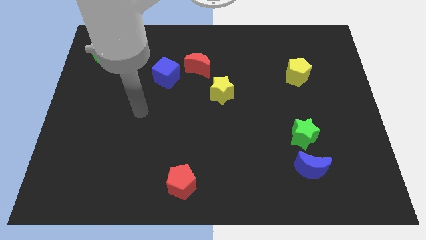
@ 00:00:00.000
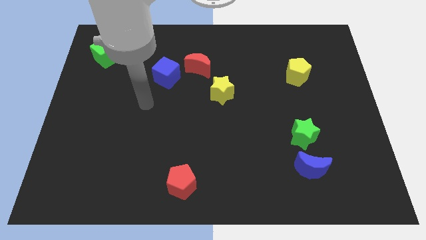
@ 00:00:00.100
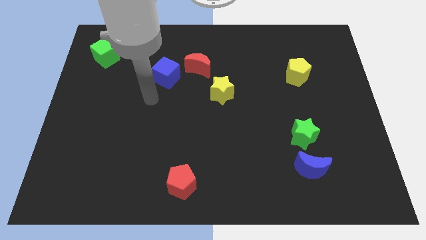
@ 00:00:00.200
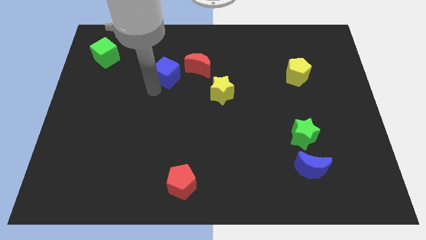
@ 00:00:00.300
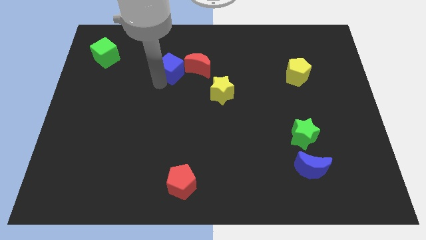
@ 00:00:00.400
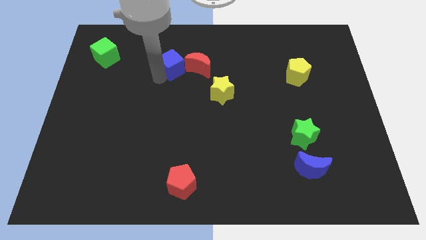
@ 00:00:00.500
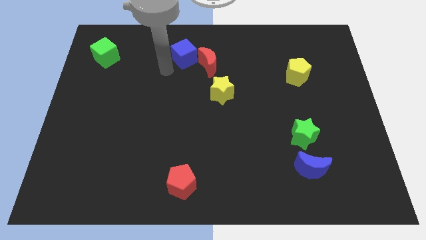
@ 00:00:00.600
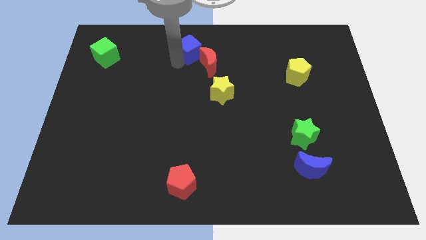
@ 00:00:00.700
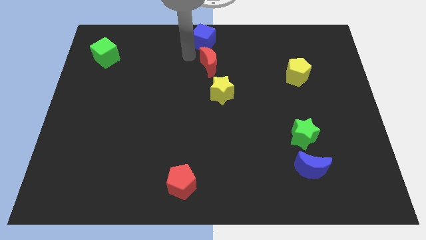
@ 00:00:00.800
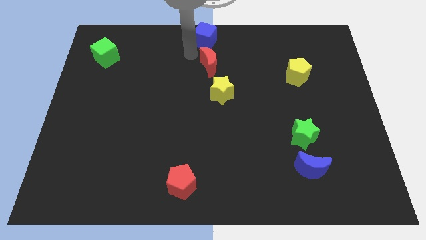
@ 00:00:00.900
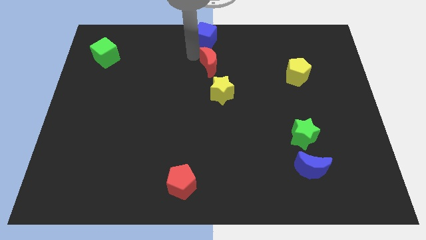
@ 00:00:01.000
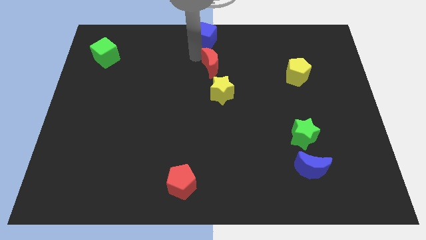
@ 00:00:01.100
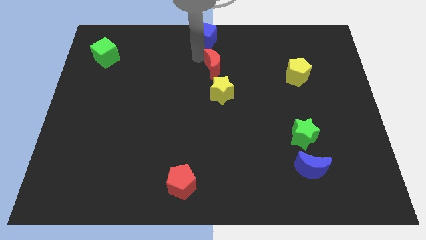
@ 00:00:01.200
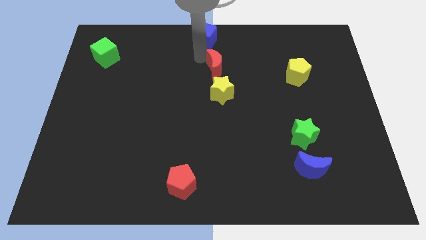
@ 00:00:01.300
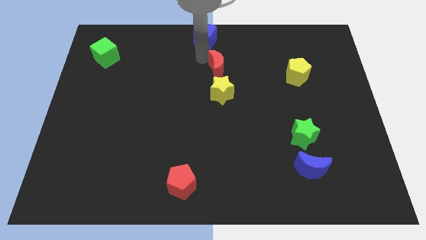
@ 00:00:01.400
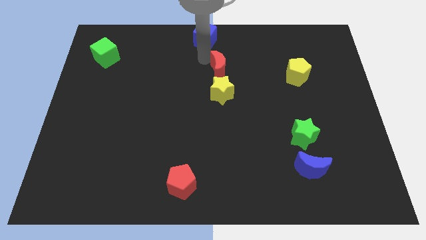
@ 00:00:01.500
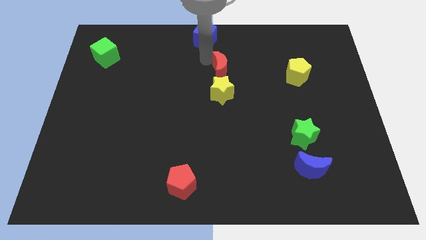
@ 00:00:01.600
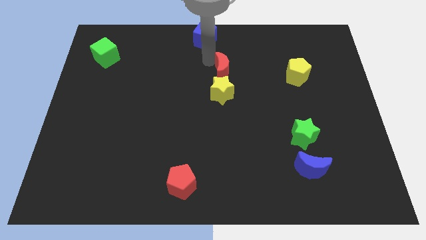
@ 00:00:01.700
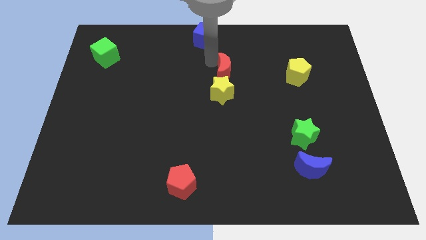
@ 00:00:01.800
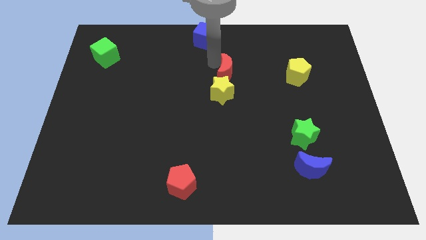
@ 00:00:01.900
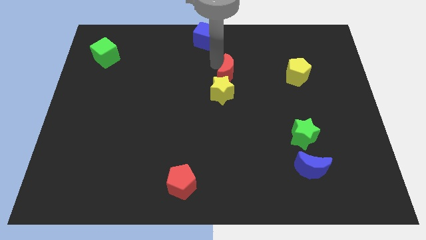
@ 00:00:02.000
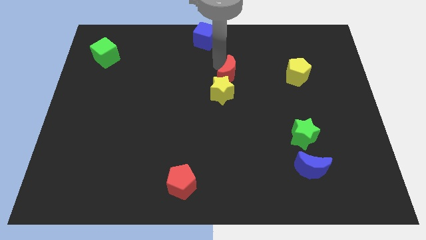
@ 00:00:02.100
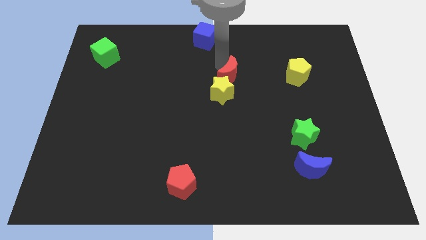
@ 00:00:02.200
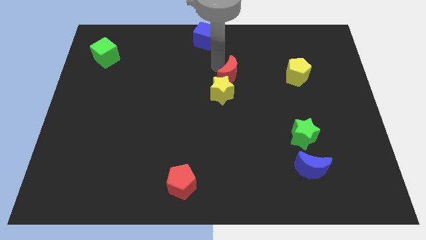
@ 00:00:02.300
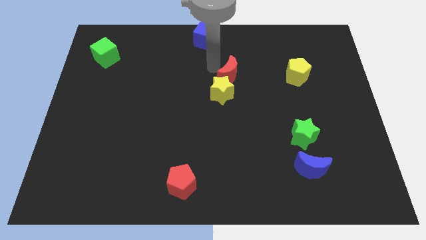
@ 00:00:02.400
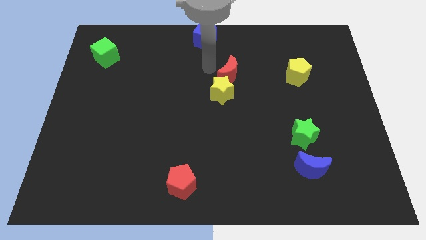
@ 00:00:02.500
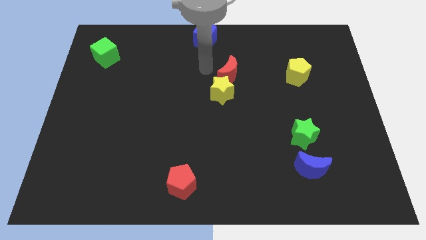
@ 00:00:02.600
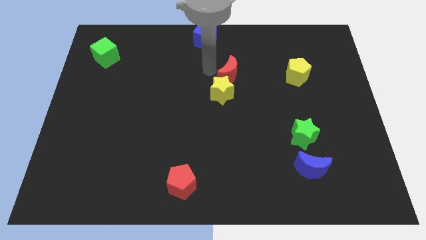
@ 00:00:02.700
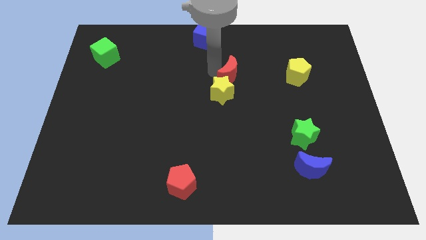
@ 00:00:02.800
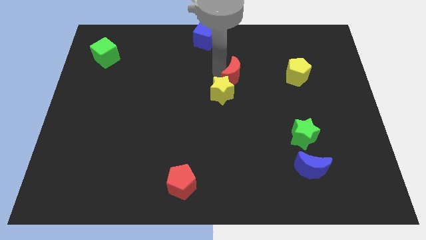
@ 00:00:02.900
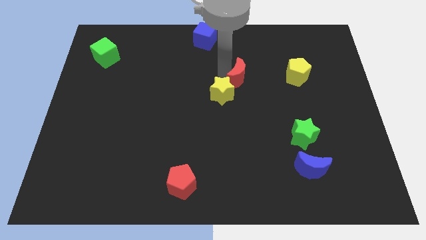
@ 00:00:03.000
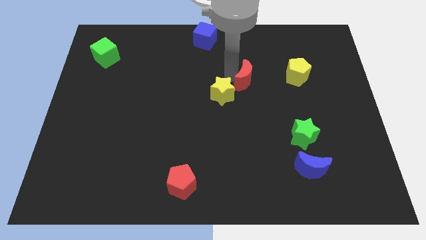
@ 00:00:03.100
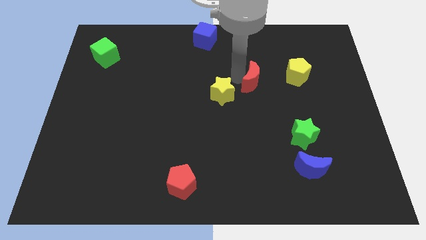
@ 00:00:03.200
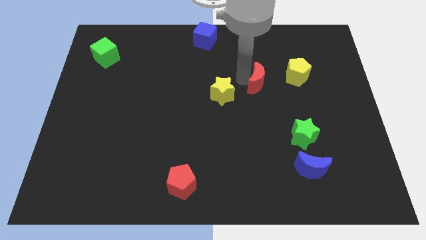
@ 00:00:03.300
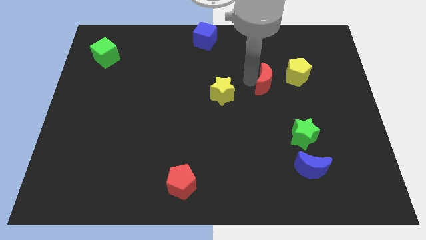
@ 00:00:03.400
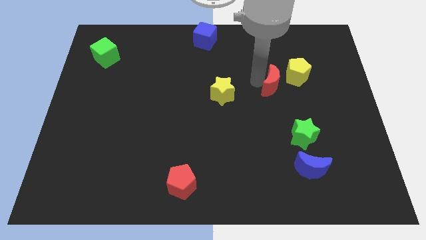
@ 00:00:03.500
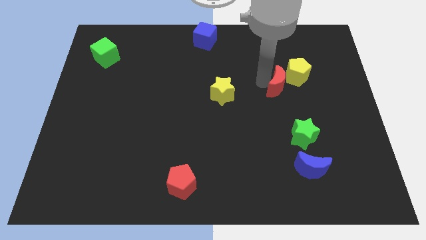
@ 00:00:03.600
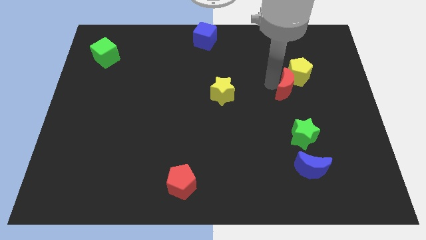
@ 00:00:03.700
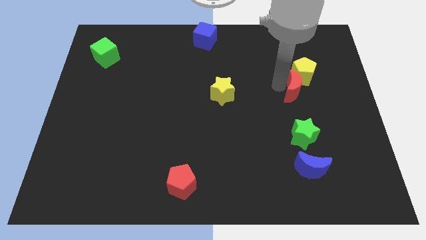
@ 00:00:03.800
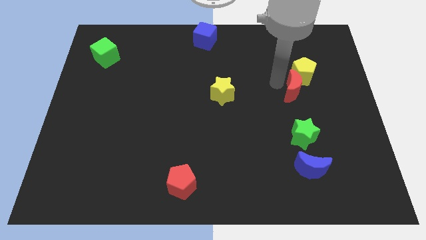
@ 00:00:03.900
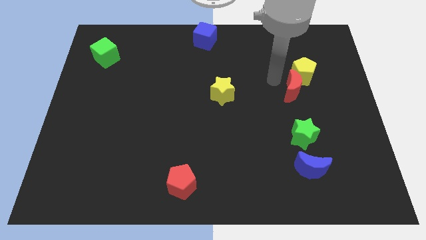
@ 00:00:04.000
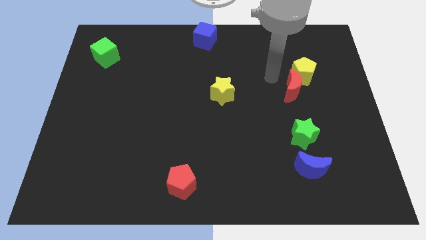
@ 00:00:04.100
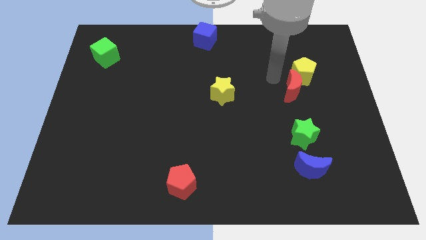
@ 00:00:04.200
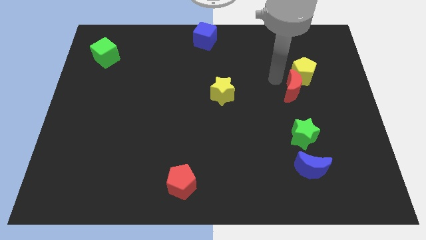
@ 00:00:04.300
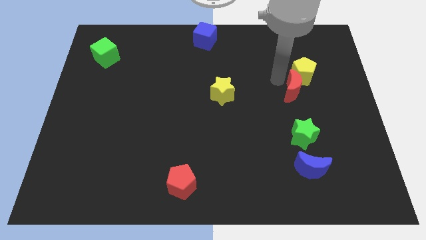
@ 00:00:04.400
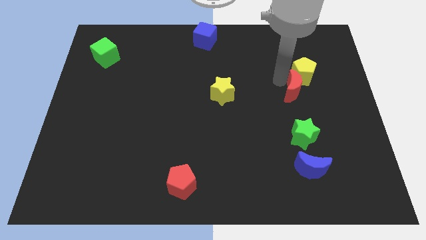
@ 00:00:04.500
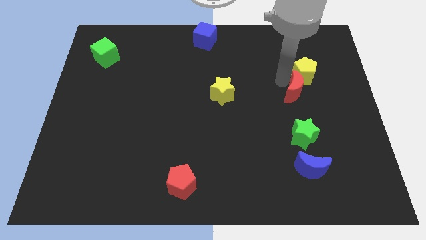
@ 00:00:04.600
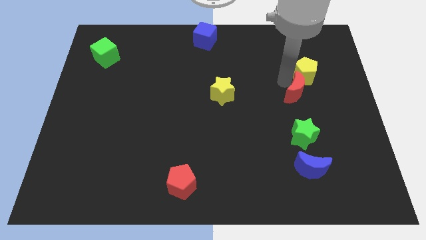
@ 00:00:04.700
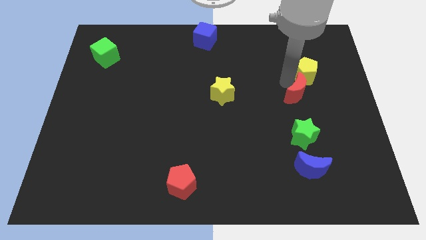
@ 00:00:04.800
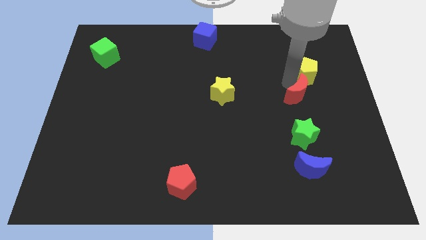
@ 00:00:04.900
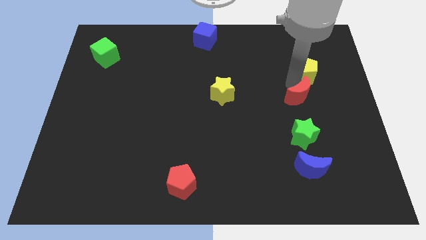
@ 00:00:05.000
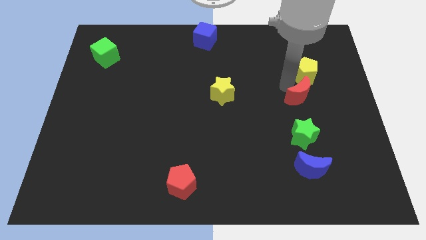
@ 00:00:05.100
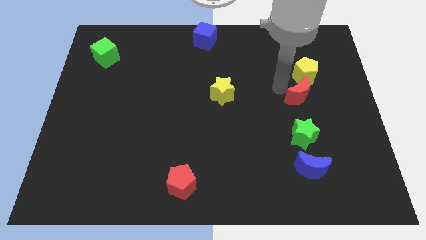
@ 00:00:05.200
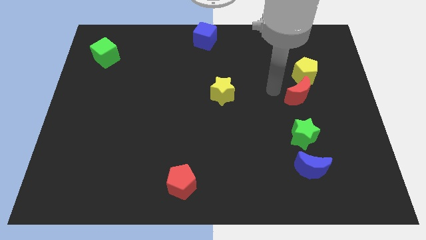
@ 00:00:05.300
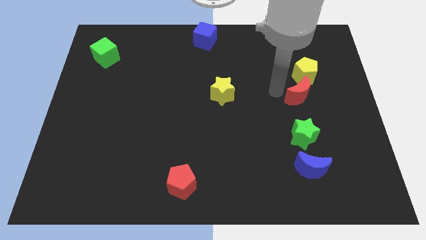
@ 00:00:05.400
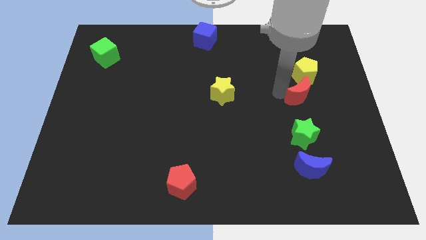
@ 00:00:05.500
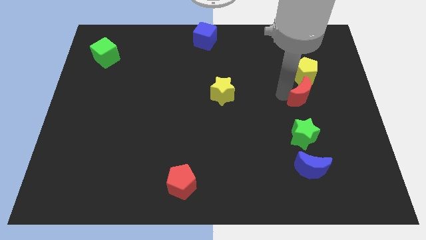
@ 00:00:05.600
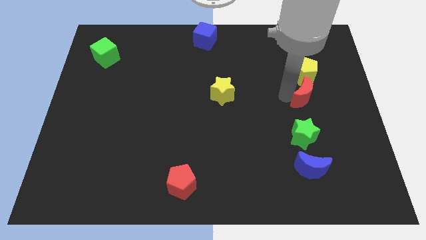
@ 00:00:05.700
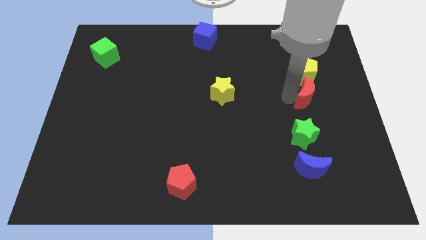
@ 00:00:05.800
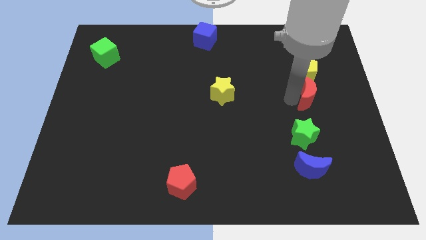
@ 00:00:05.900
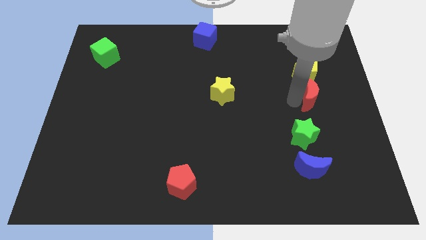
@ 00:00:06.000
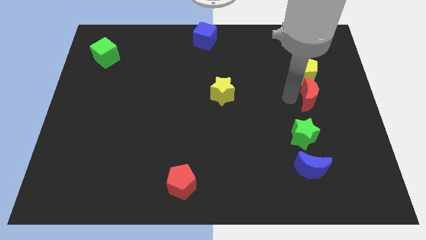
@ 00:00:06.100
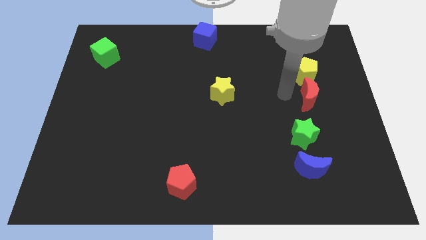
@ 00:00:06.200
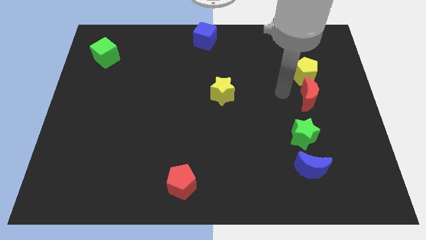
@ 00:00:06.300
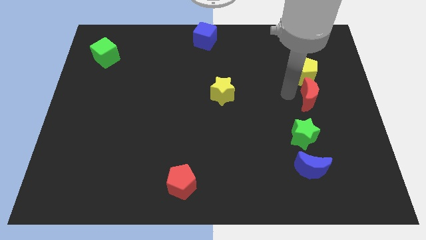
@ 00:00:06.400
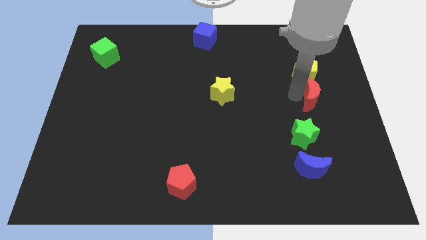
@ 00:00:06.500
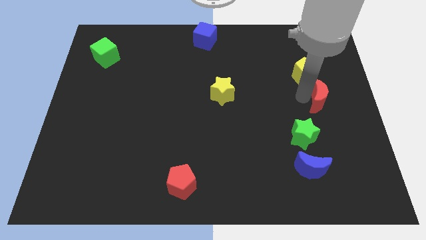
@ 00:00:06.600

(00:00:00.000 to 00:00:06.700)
put the red moon to the right side

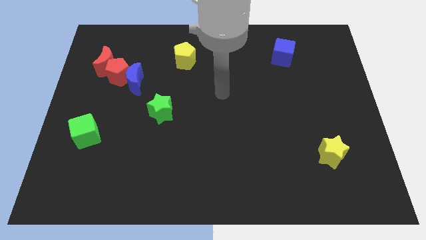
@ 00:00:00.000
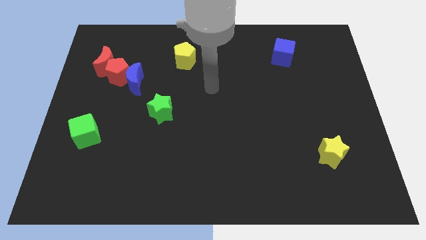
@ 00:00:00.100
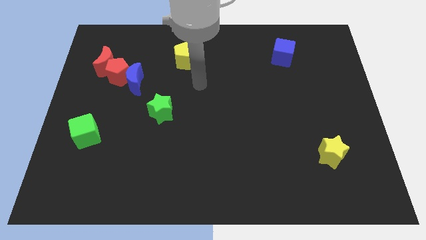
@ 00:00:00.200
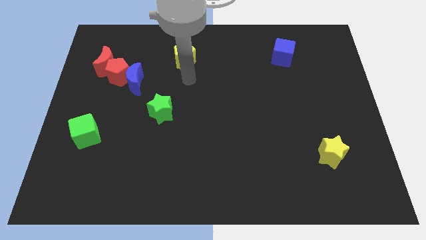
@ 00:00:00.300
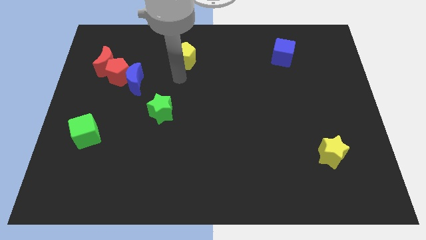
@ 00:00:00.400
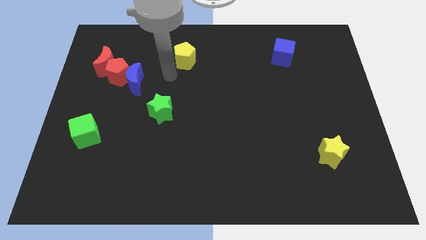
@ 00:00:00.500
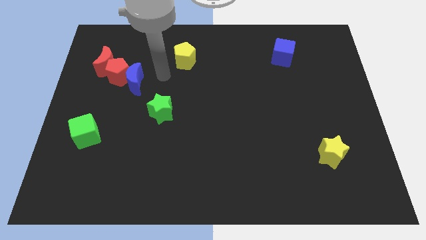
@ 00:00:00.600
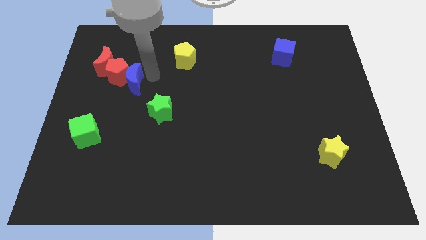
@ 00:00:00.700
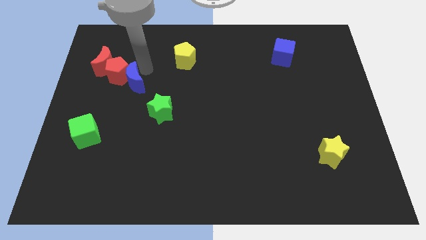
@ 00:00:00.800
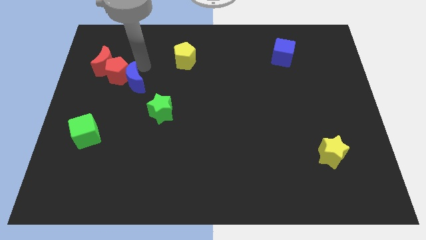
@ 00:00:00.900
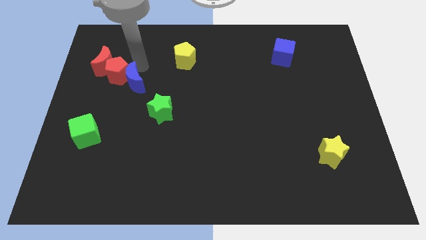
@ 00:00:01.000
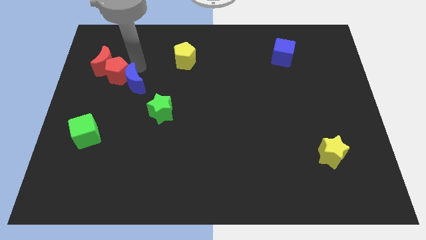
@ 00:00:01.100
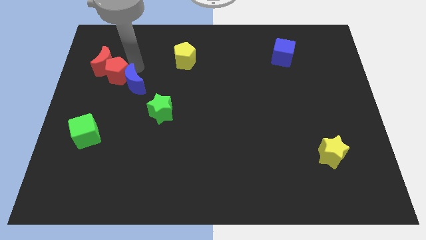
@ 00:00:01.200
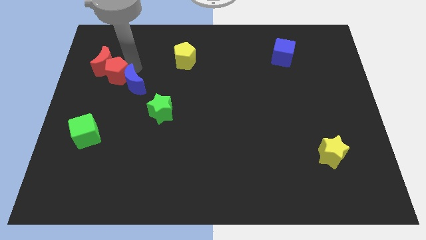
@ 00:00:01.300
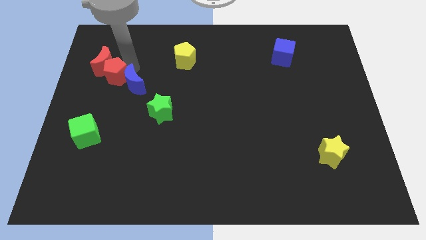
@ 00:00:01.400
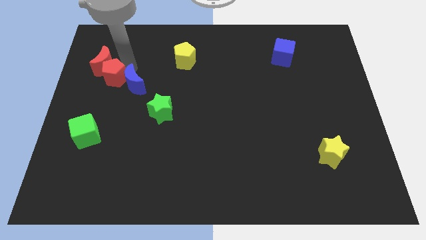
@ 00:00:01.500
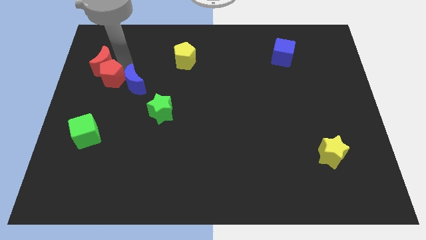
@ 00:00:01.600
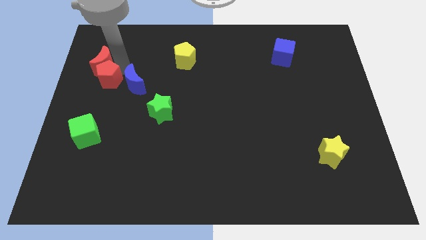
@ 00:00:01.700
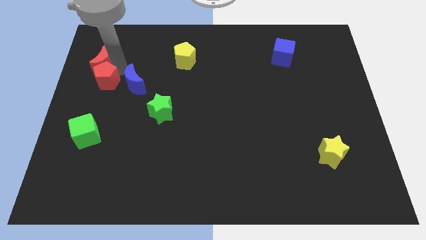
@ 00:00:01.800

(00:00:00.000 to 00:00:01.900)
move the red pentagon to the center left
